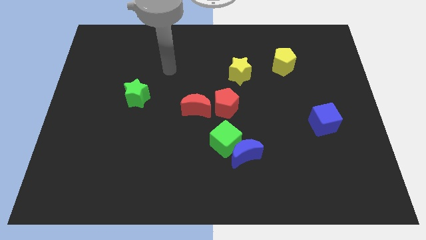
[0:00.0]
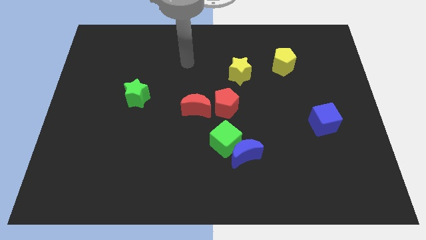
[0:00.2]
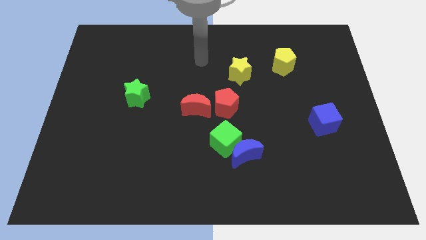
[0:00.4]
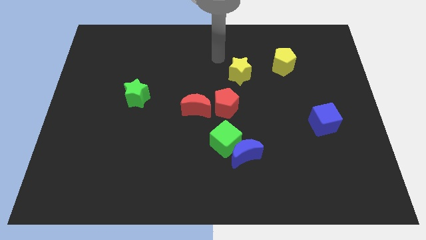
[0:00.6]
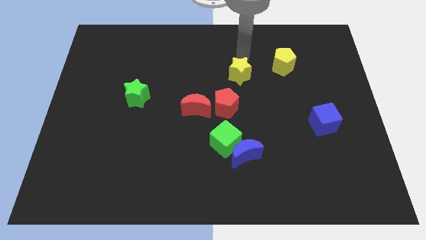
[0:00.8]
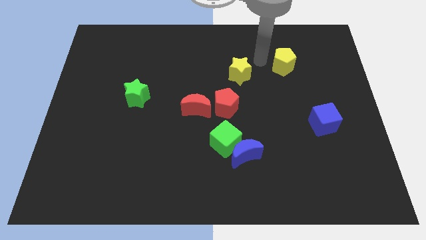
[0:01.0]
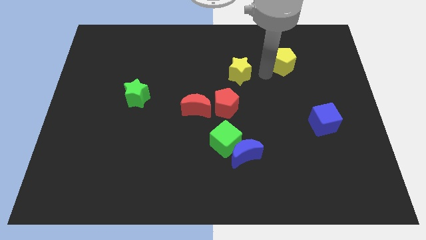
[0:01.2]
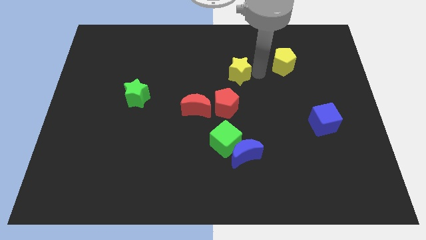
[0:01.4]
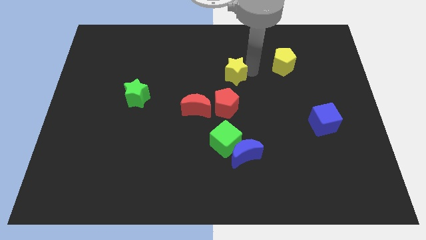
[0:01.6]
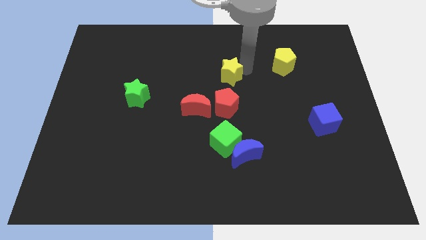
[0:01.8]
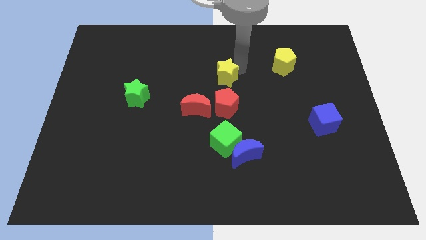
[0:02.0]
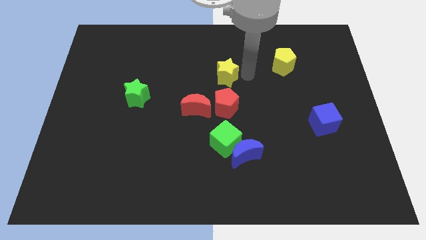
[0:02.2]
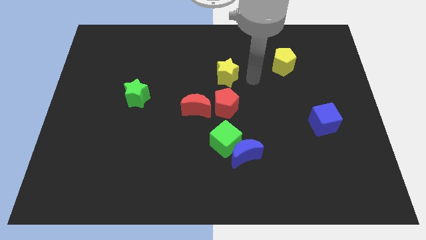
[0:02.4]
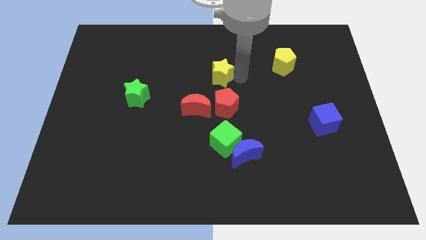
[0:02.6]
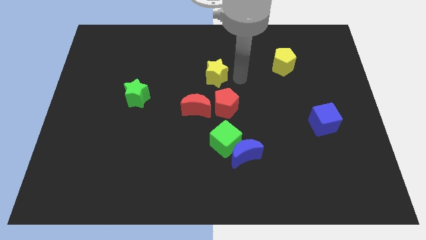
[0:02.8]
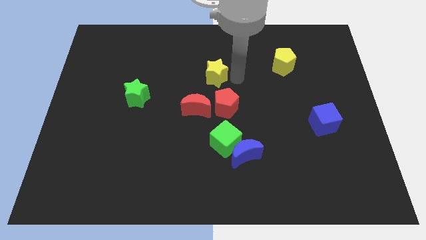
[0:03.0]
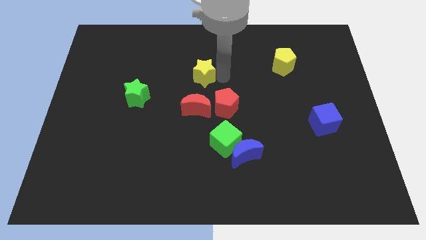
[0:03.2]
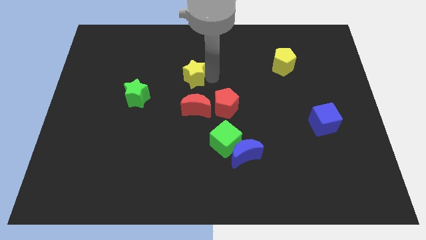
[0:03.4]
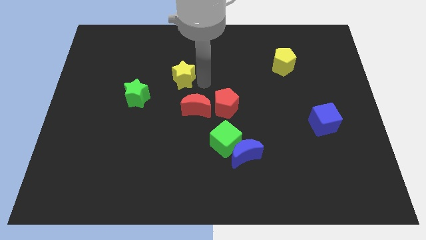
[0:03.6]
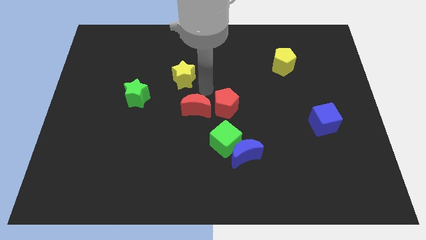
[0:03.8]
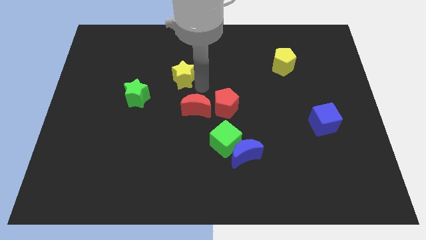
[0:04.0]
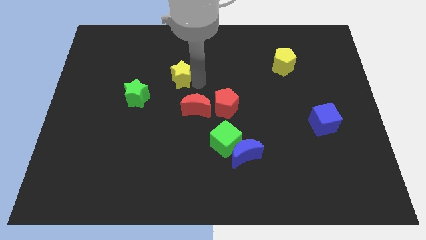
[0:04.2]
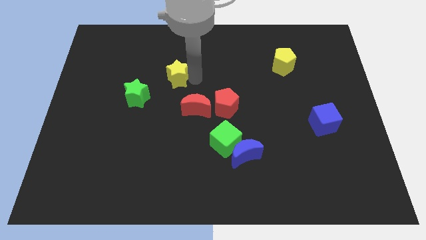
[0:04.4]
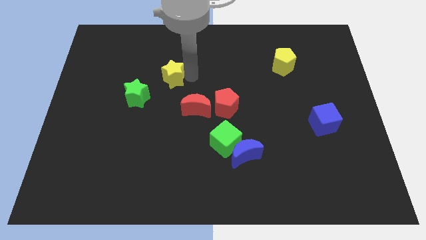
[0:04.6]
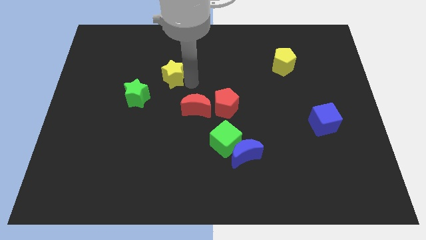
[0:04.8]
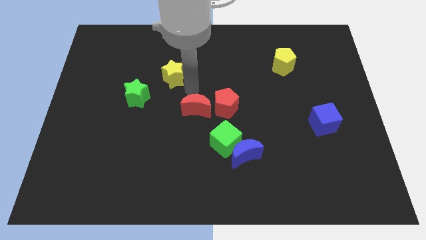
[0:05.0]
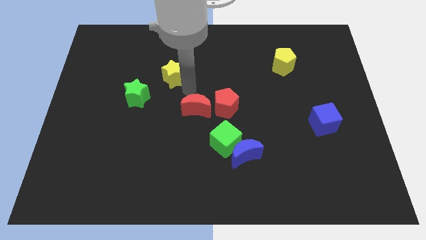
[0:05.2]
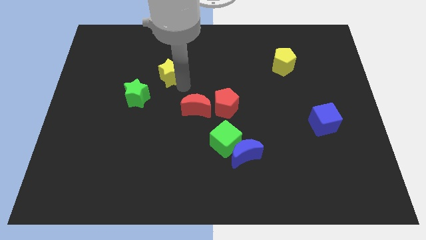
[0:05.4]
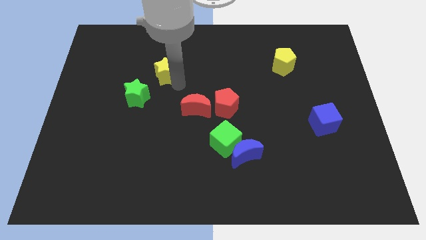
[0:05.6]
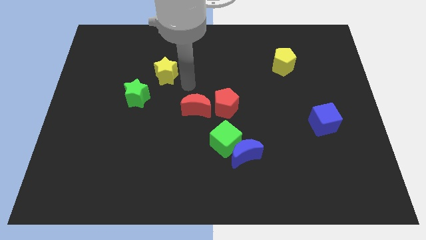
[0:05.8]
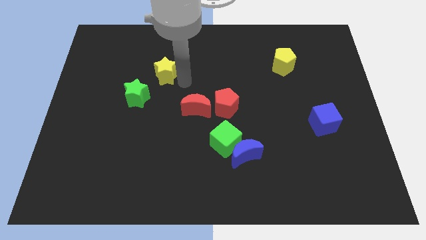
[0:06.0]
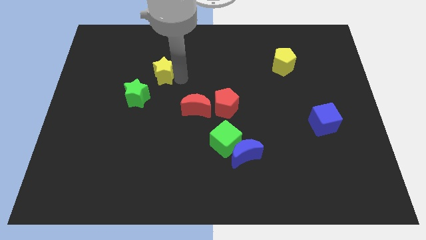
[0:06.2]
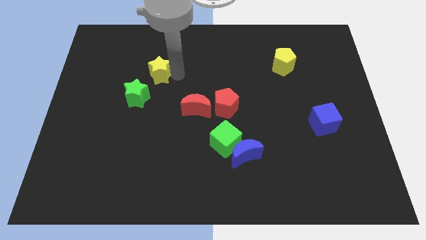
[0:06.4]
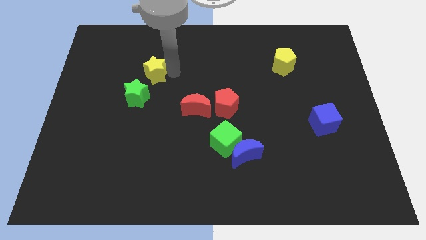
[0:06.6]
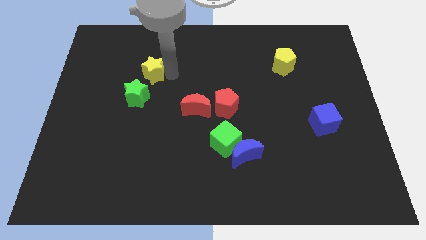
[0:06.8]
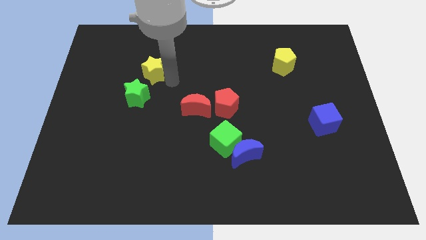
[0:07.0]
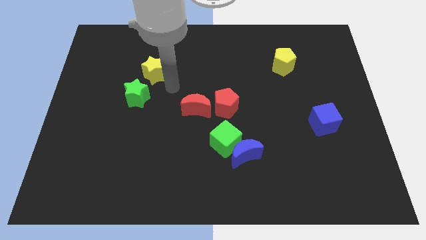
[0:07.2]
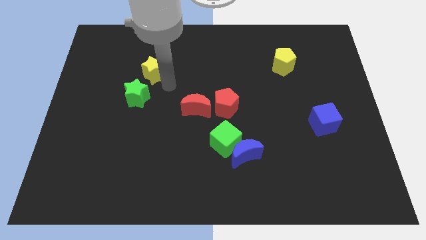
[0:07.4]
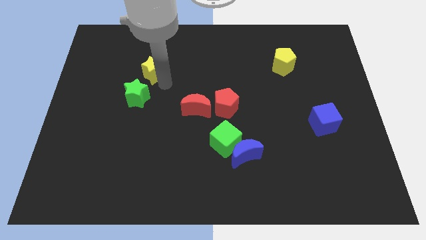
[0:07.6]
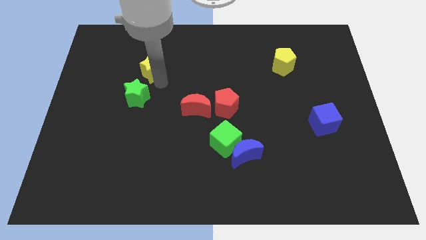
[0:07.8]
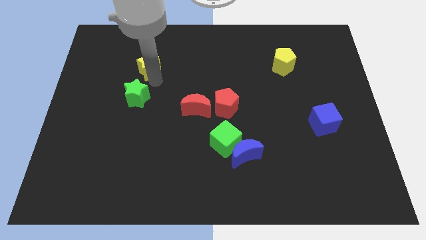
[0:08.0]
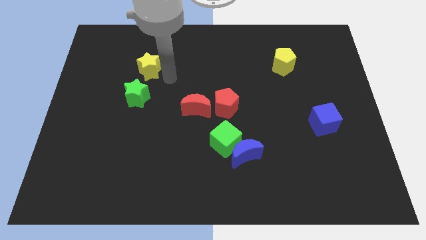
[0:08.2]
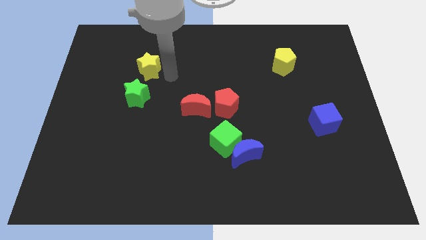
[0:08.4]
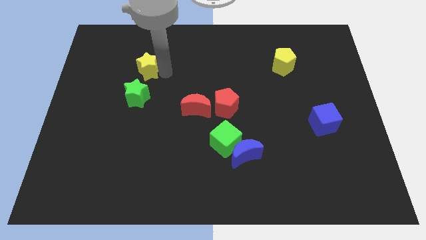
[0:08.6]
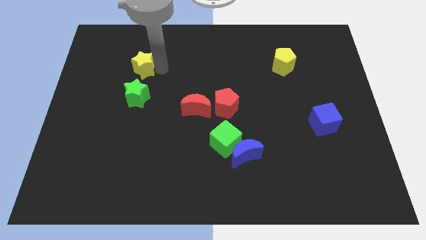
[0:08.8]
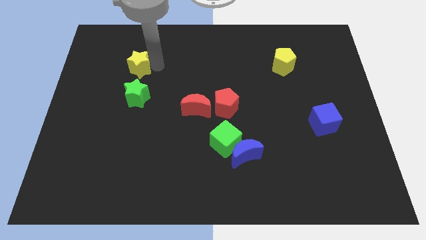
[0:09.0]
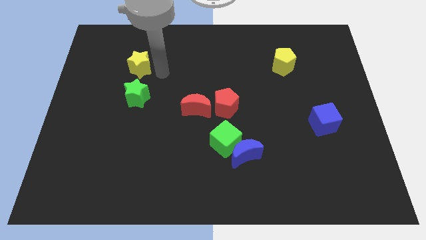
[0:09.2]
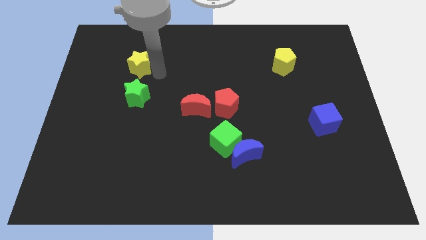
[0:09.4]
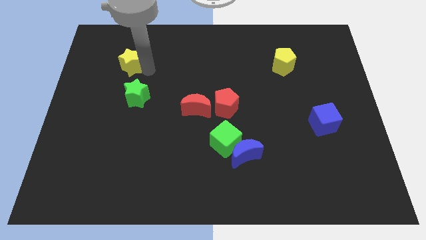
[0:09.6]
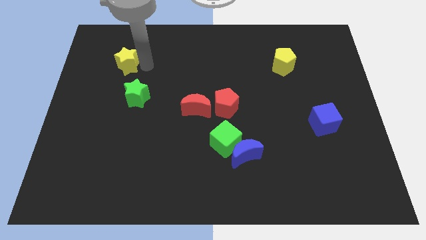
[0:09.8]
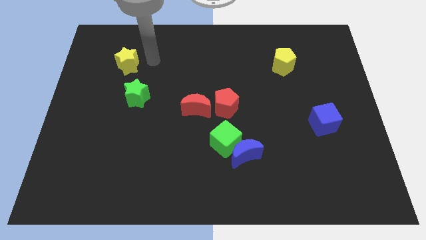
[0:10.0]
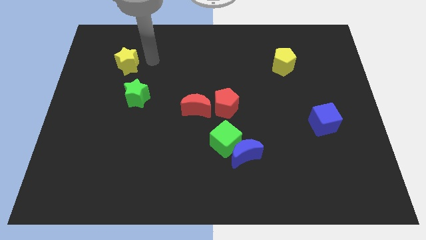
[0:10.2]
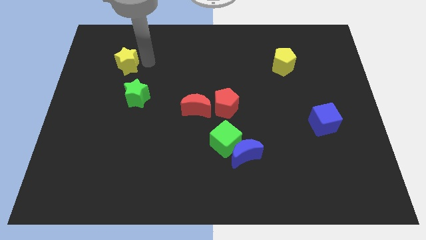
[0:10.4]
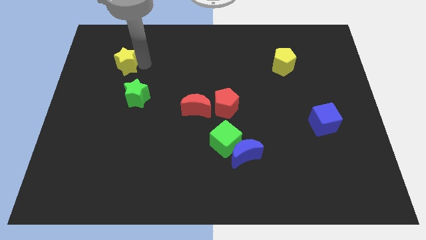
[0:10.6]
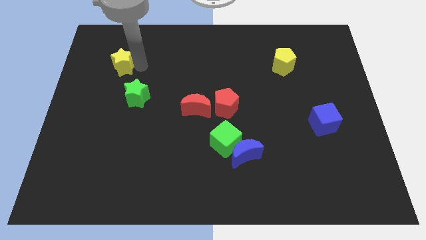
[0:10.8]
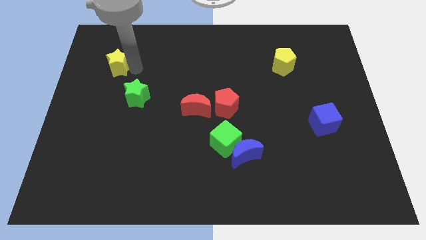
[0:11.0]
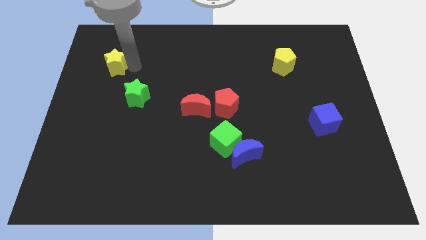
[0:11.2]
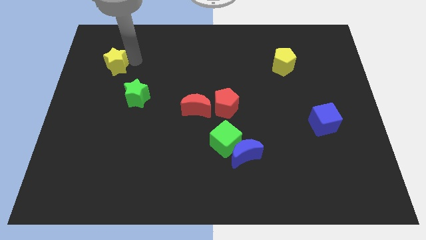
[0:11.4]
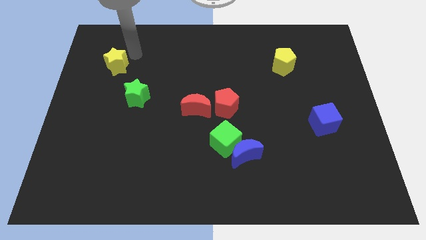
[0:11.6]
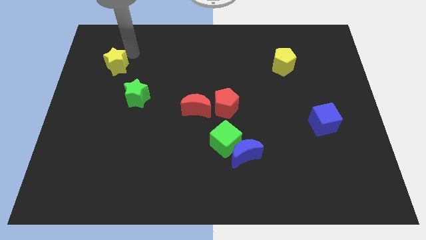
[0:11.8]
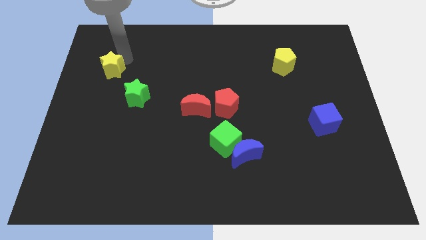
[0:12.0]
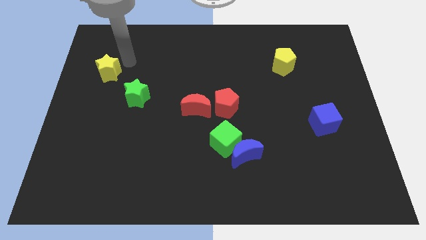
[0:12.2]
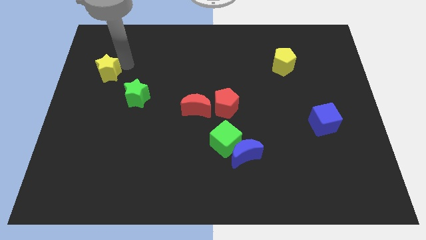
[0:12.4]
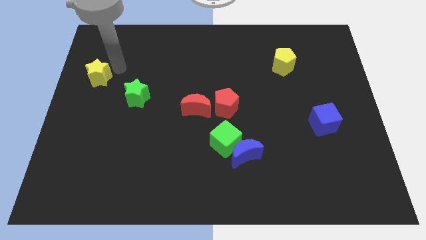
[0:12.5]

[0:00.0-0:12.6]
put the yellow star to the left side
